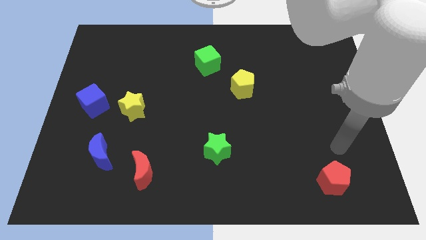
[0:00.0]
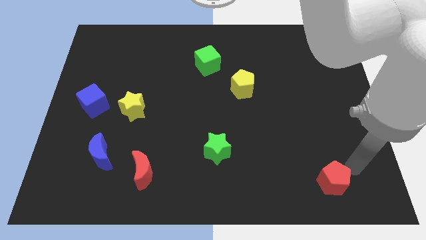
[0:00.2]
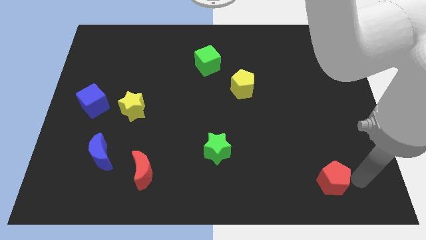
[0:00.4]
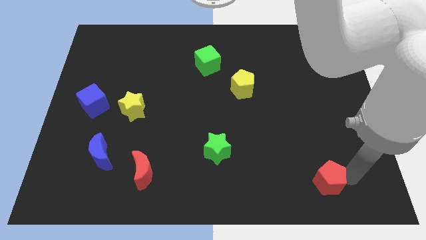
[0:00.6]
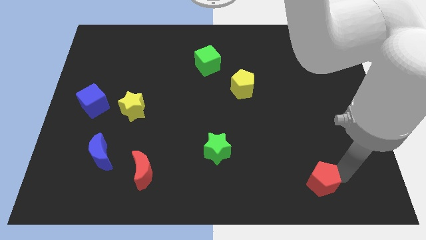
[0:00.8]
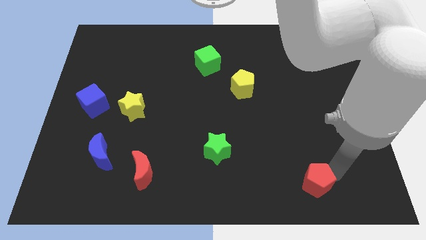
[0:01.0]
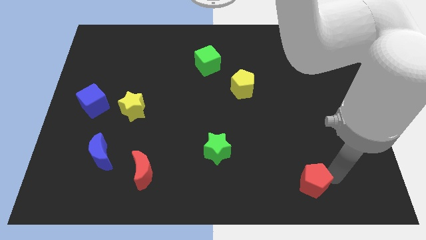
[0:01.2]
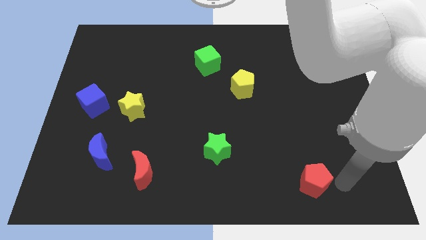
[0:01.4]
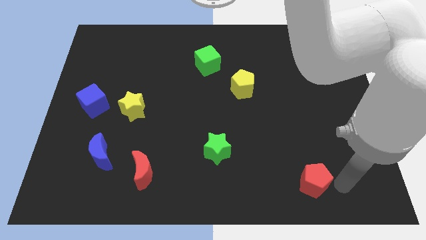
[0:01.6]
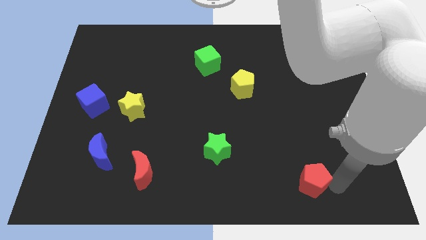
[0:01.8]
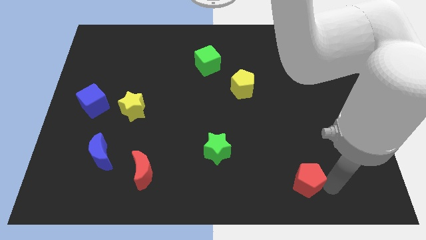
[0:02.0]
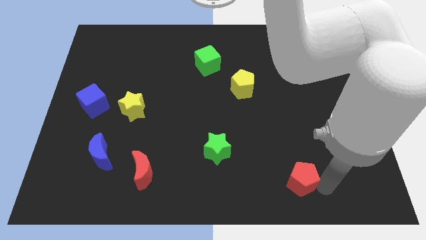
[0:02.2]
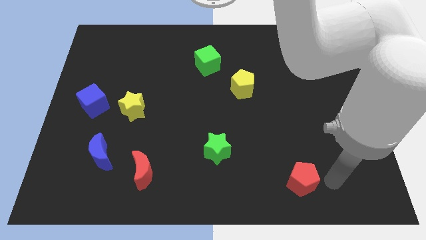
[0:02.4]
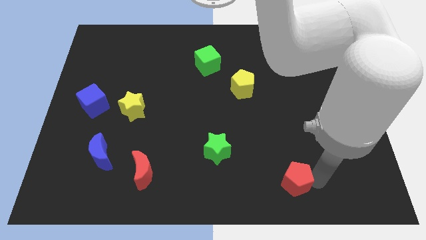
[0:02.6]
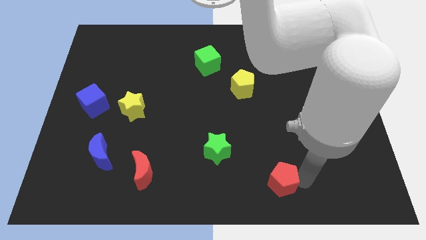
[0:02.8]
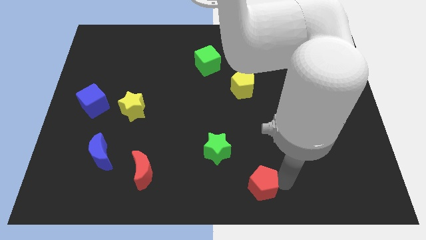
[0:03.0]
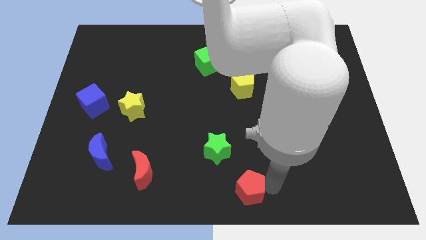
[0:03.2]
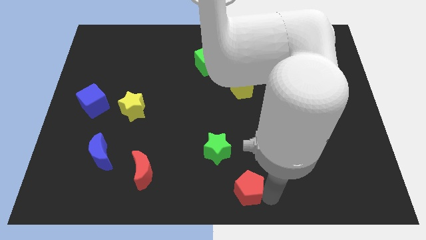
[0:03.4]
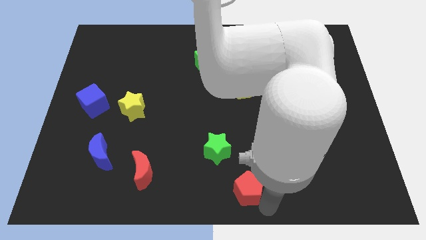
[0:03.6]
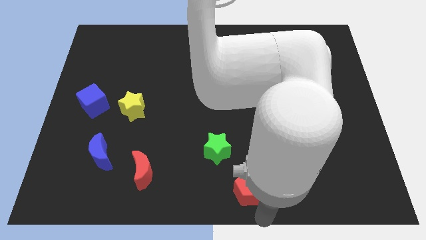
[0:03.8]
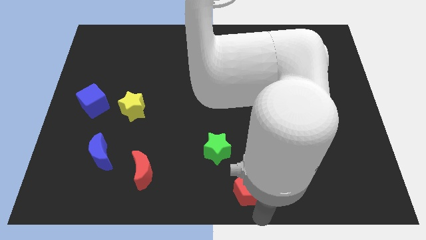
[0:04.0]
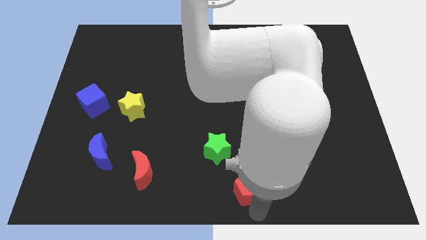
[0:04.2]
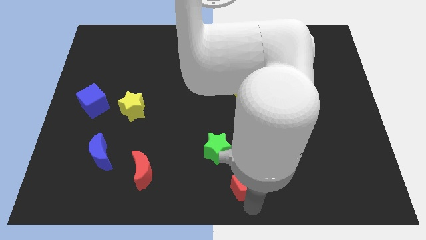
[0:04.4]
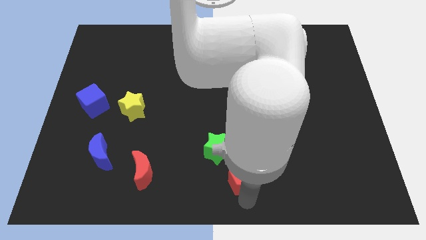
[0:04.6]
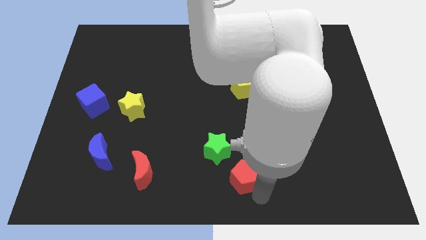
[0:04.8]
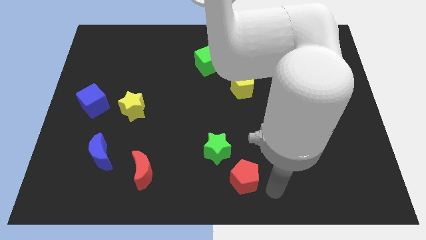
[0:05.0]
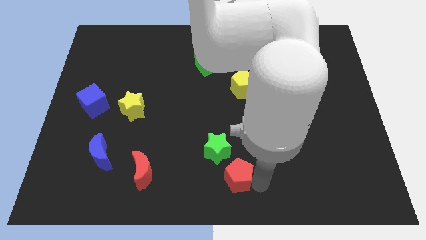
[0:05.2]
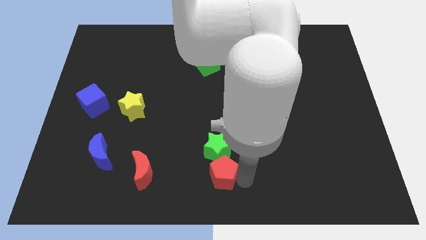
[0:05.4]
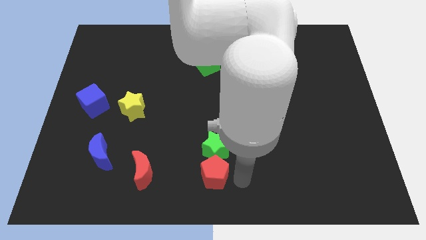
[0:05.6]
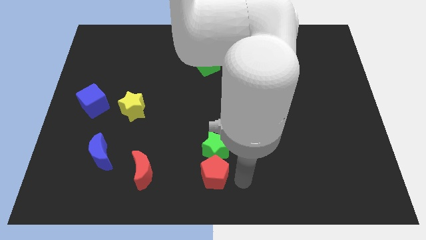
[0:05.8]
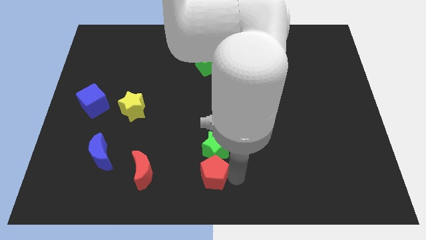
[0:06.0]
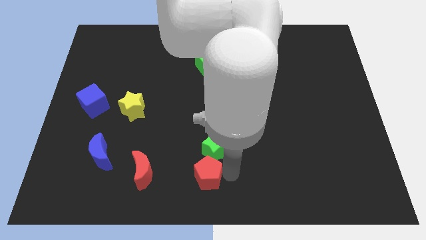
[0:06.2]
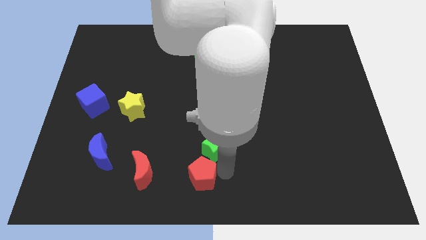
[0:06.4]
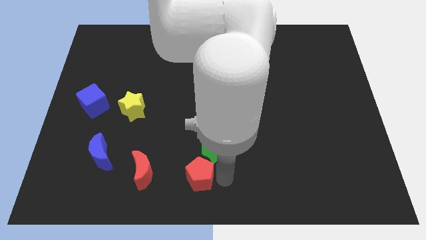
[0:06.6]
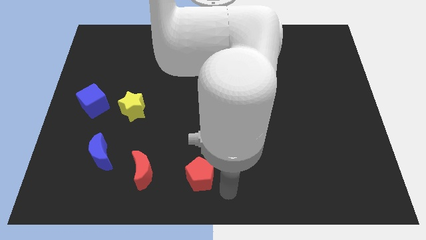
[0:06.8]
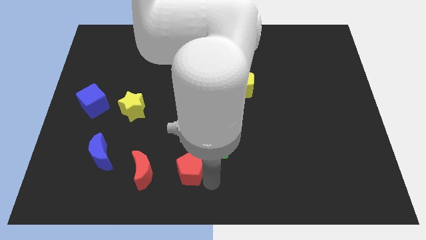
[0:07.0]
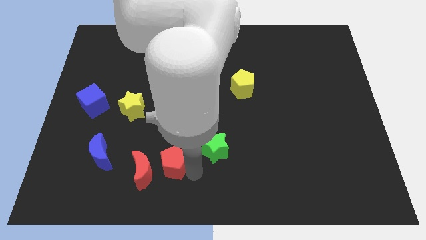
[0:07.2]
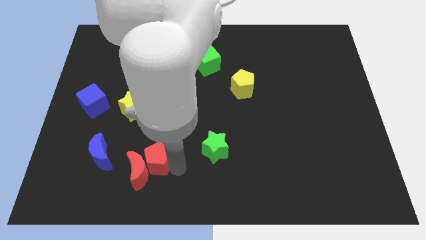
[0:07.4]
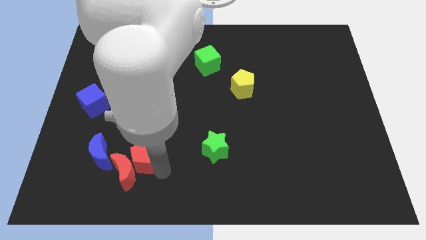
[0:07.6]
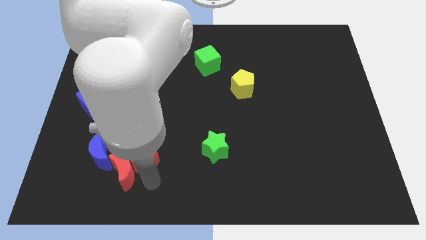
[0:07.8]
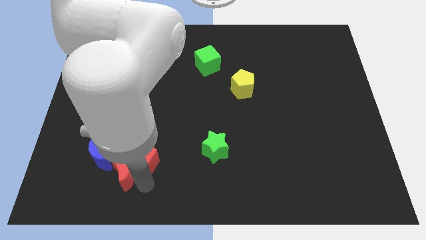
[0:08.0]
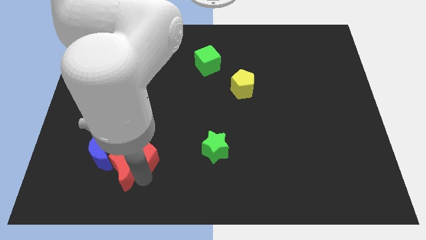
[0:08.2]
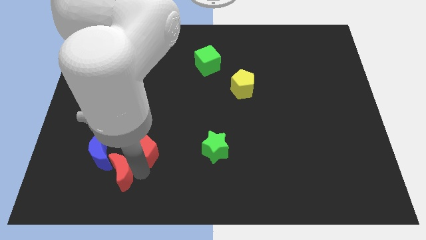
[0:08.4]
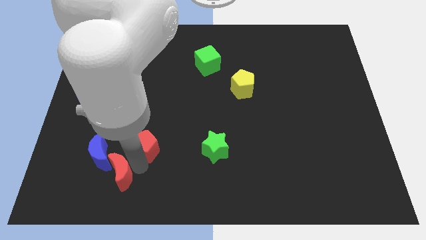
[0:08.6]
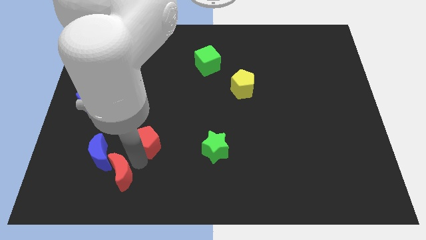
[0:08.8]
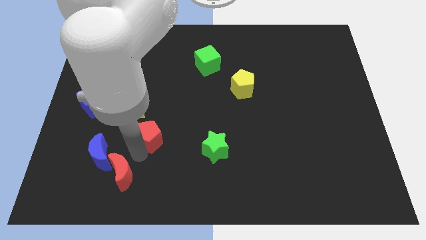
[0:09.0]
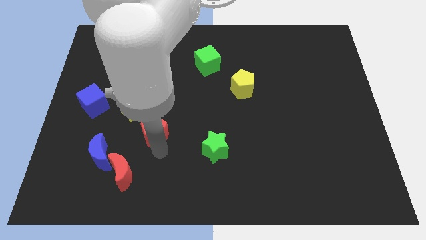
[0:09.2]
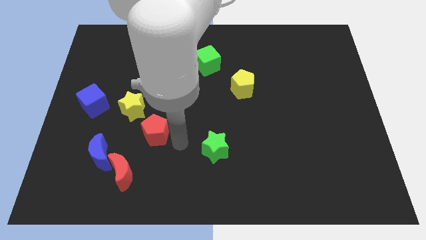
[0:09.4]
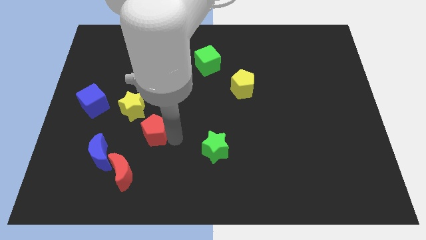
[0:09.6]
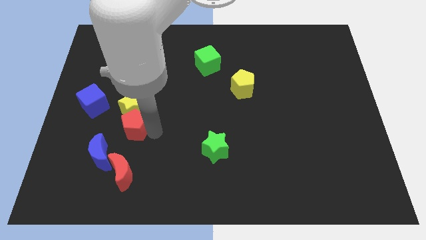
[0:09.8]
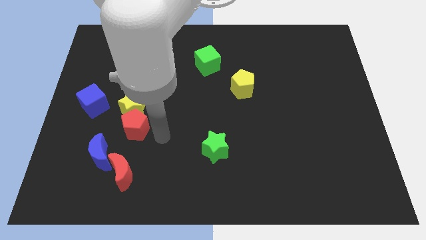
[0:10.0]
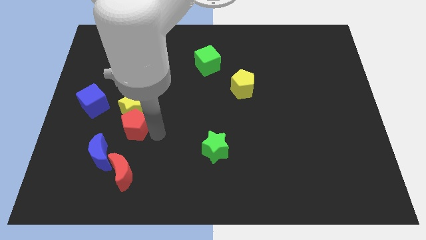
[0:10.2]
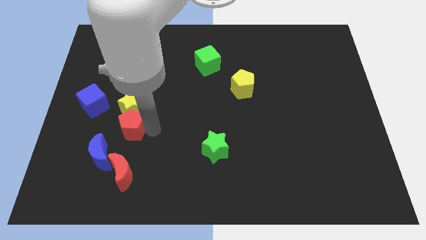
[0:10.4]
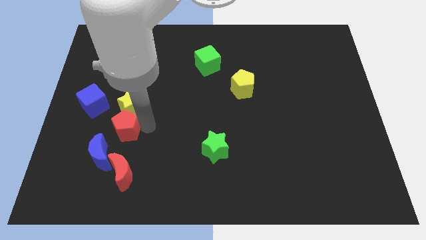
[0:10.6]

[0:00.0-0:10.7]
slide the red pentagon to the top of the blue moon

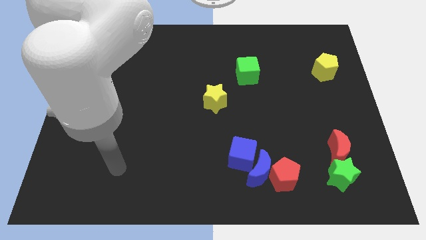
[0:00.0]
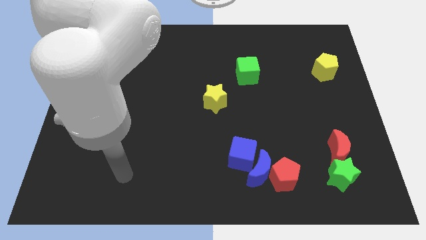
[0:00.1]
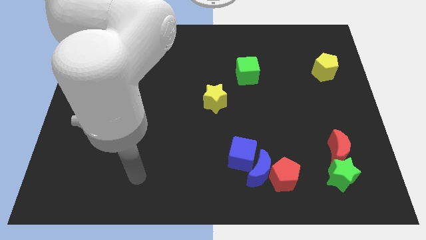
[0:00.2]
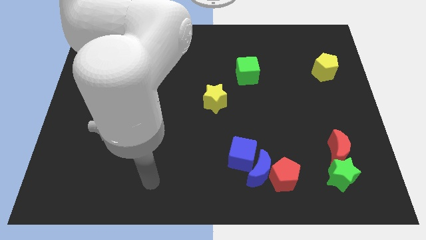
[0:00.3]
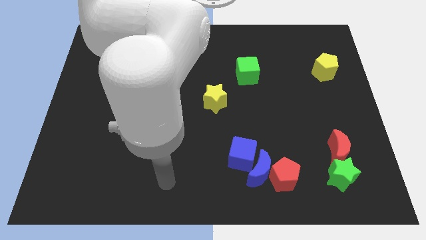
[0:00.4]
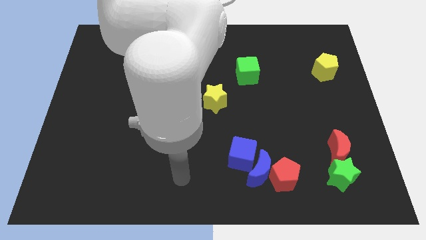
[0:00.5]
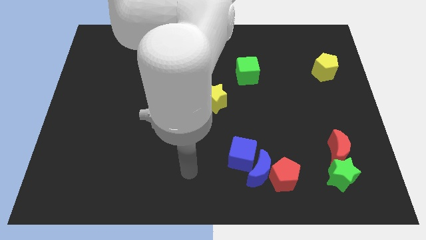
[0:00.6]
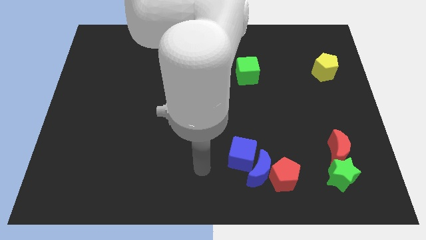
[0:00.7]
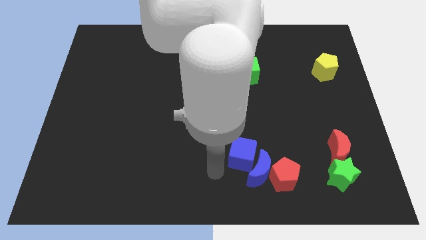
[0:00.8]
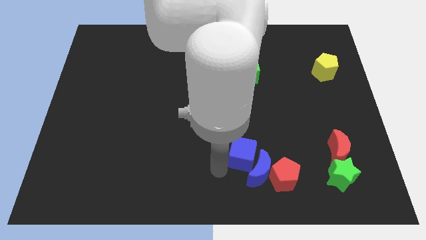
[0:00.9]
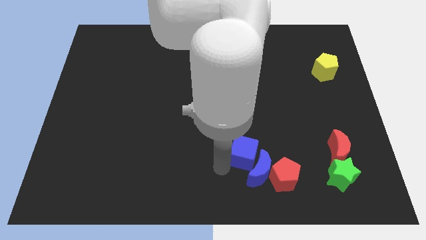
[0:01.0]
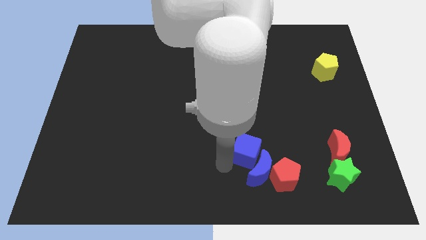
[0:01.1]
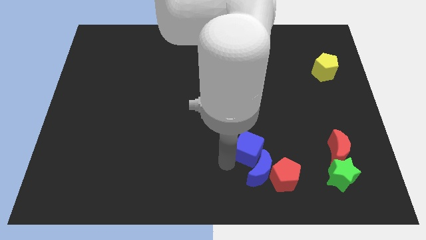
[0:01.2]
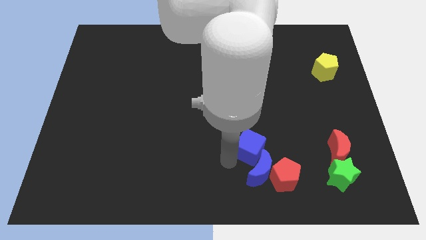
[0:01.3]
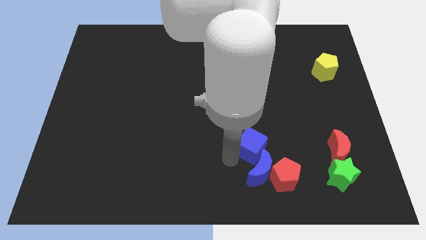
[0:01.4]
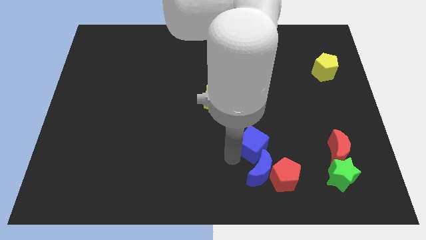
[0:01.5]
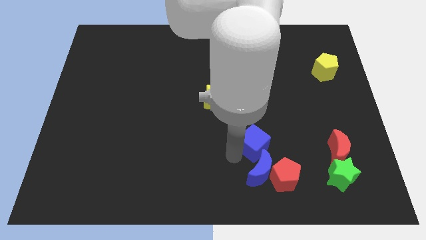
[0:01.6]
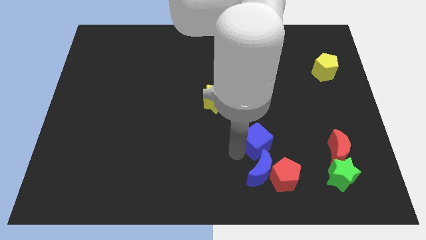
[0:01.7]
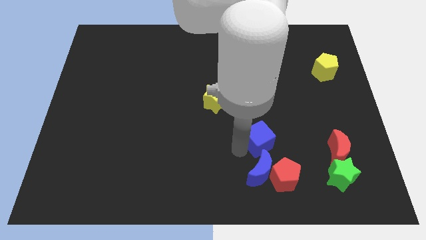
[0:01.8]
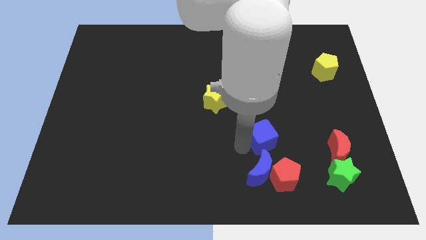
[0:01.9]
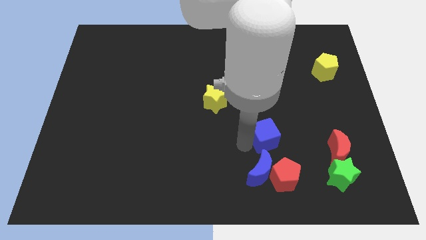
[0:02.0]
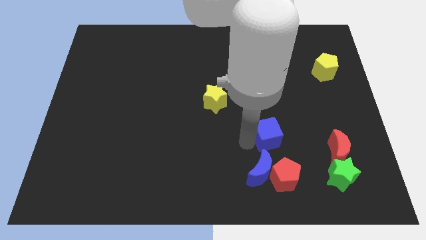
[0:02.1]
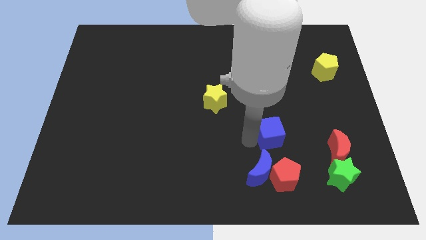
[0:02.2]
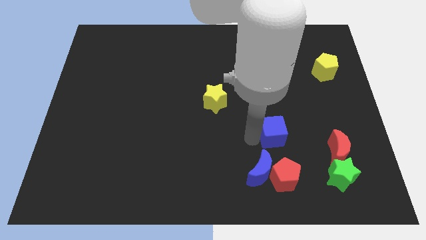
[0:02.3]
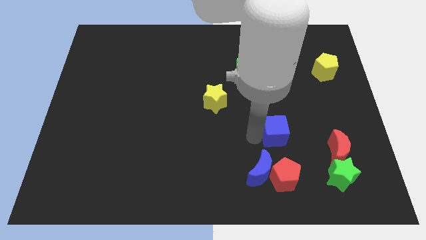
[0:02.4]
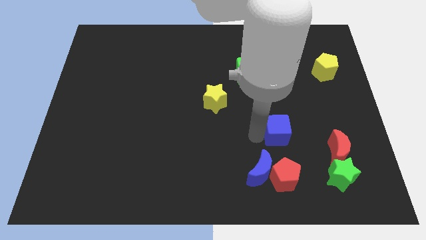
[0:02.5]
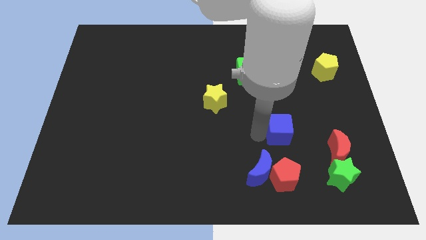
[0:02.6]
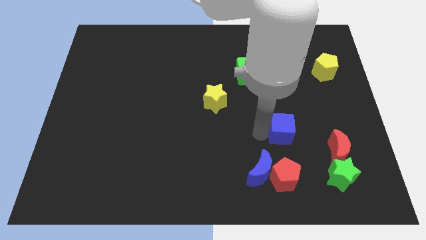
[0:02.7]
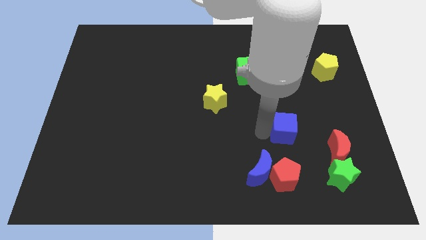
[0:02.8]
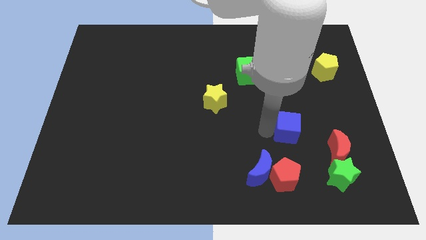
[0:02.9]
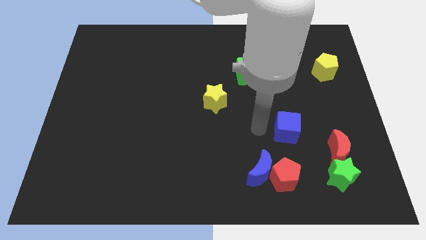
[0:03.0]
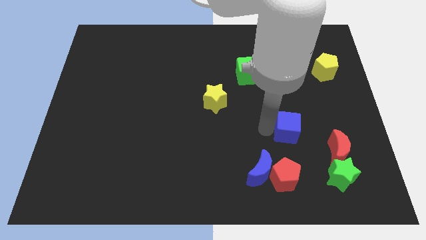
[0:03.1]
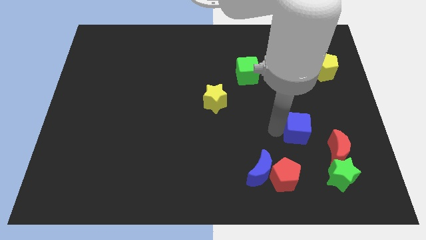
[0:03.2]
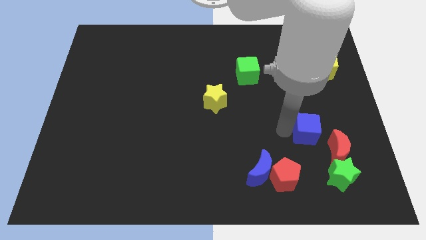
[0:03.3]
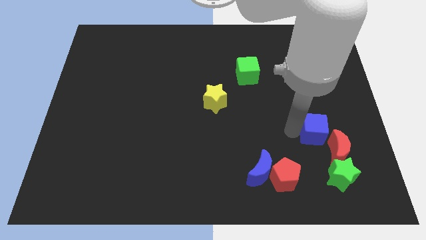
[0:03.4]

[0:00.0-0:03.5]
push the blue cube to the top side of the green star
